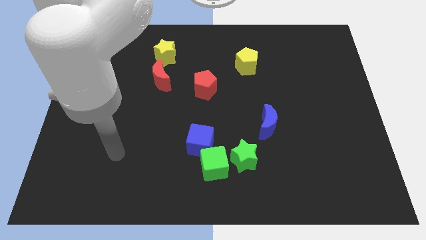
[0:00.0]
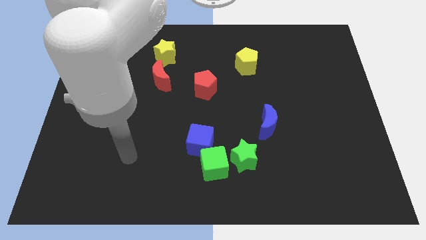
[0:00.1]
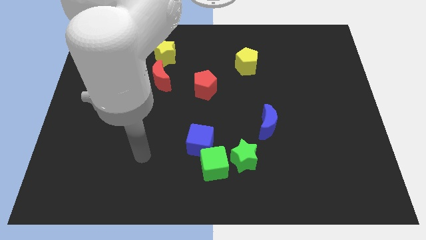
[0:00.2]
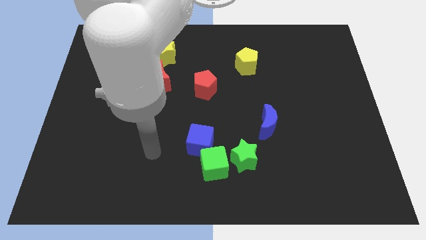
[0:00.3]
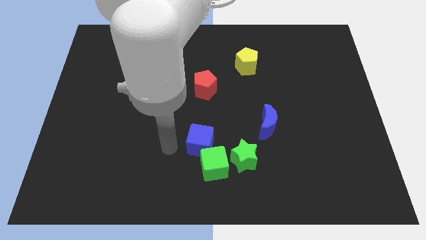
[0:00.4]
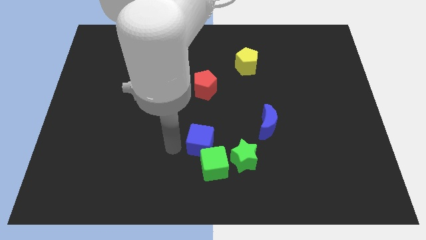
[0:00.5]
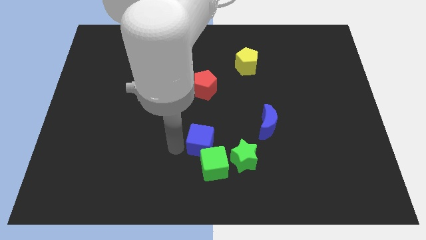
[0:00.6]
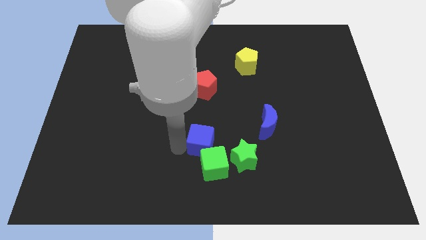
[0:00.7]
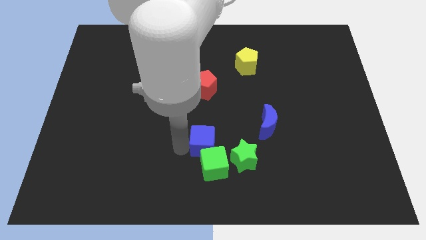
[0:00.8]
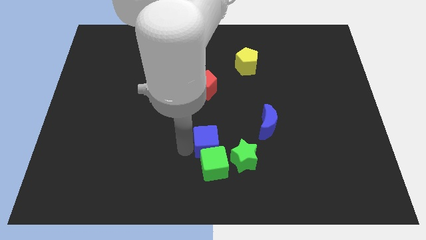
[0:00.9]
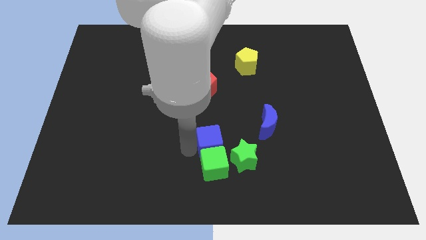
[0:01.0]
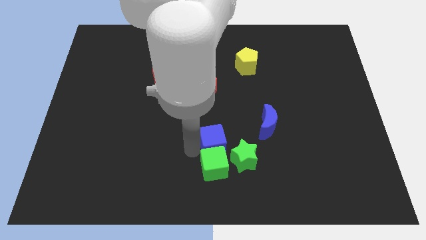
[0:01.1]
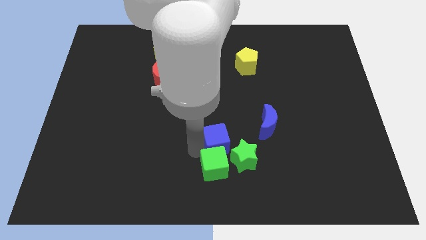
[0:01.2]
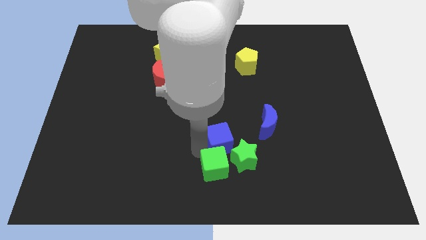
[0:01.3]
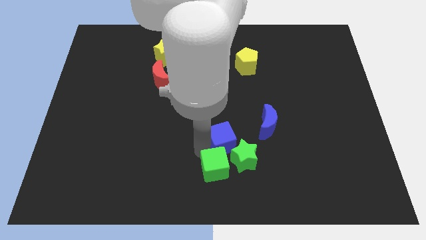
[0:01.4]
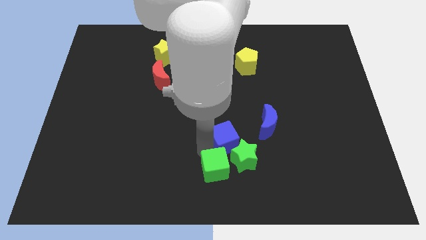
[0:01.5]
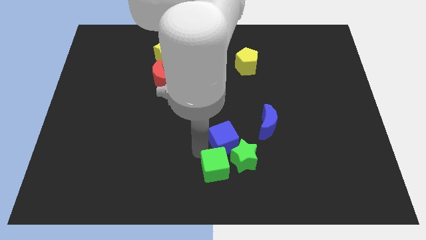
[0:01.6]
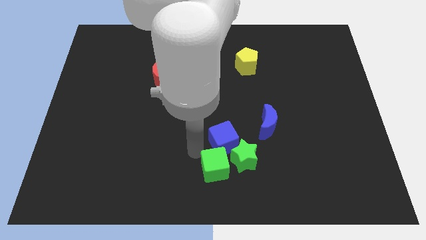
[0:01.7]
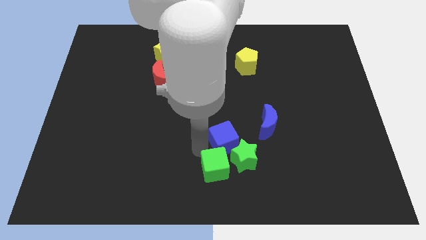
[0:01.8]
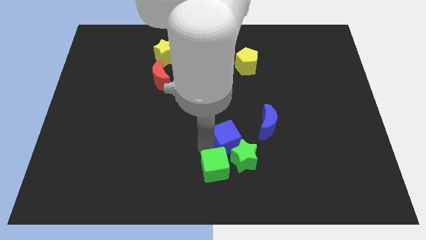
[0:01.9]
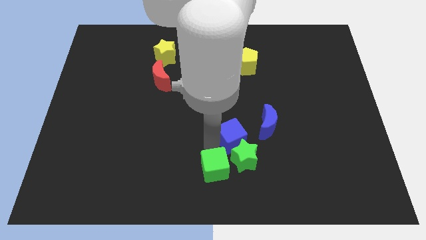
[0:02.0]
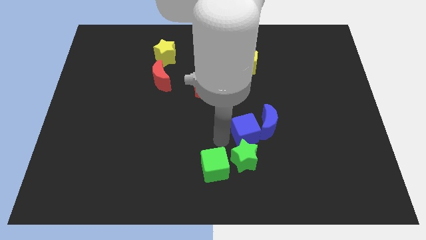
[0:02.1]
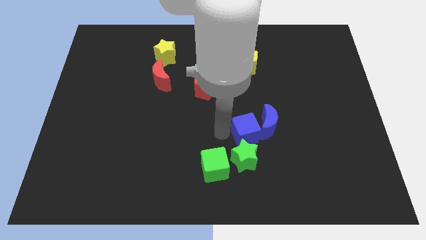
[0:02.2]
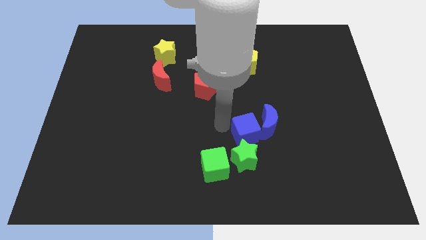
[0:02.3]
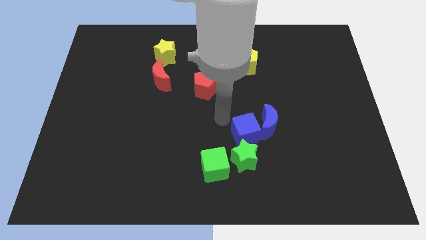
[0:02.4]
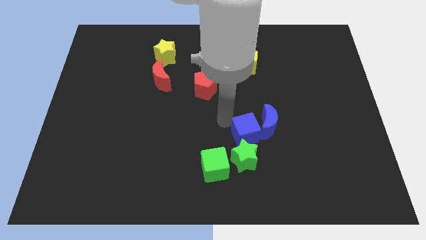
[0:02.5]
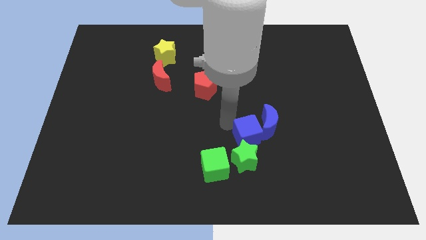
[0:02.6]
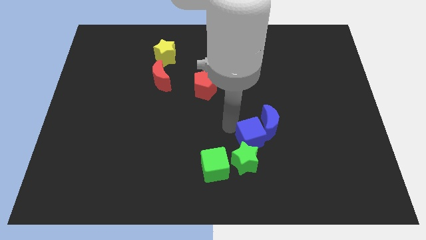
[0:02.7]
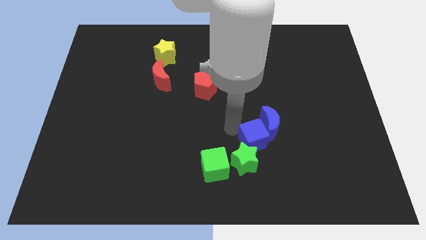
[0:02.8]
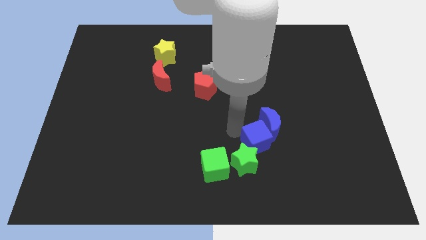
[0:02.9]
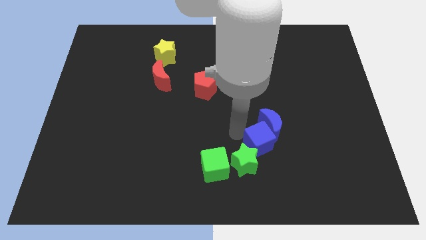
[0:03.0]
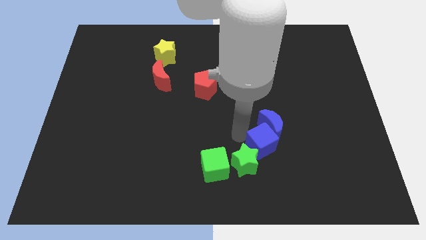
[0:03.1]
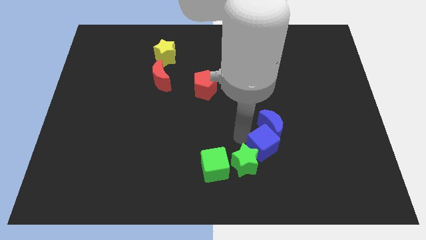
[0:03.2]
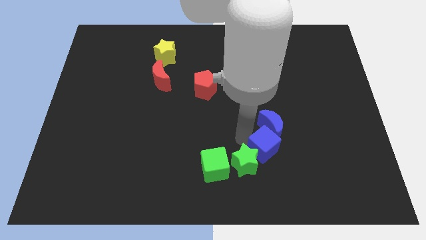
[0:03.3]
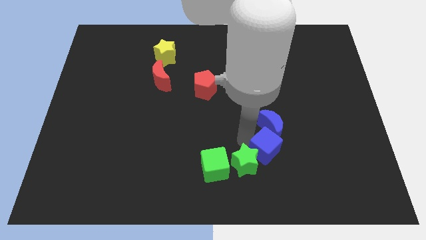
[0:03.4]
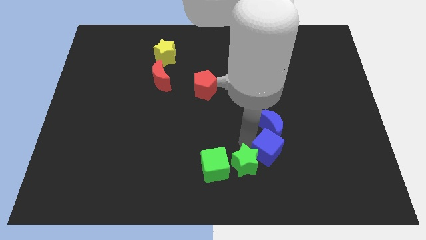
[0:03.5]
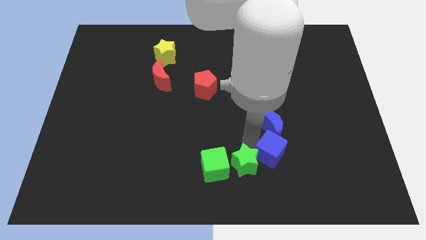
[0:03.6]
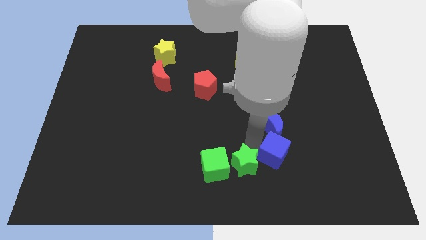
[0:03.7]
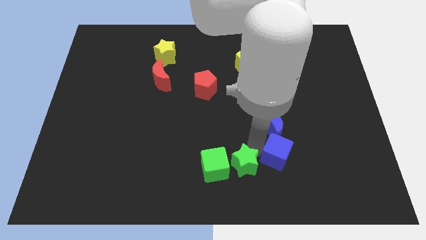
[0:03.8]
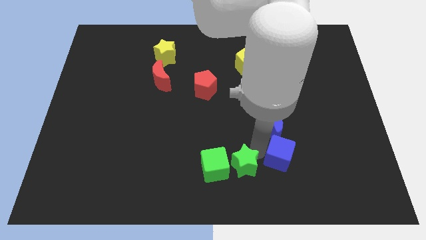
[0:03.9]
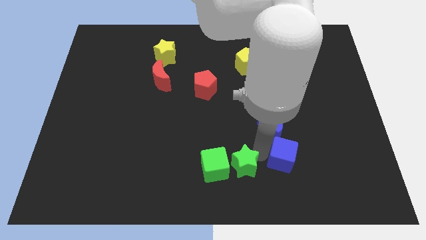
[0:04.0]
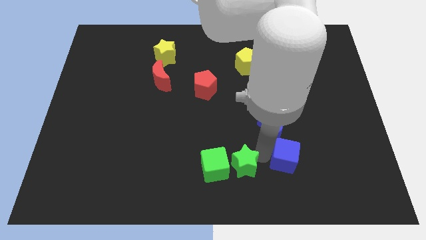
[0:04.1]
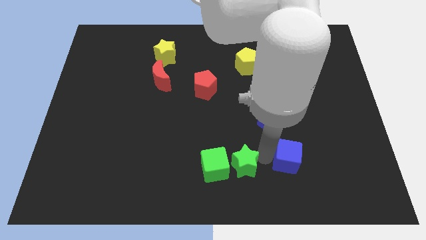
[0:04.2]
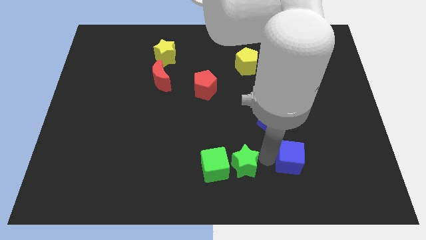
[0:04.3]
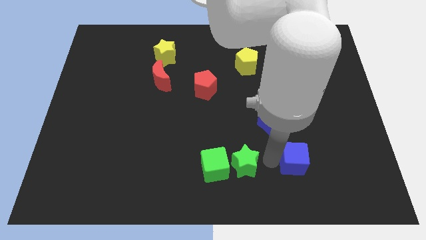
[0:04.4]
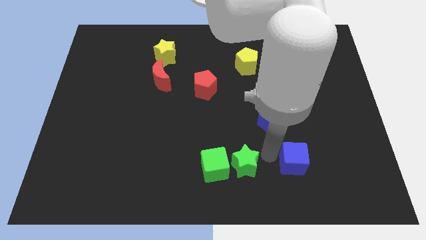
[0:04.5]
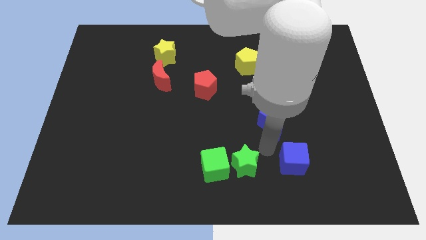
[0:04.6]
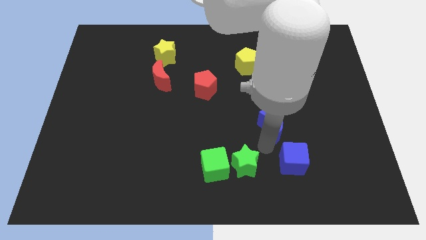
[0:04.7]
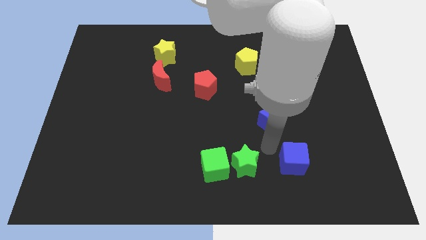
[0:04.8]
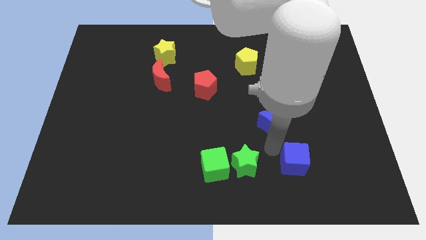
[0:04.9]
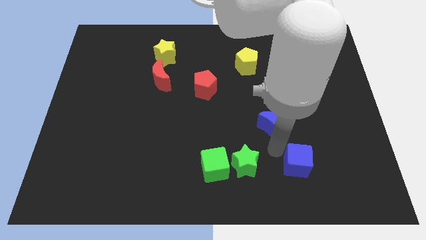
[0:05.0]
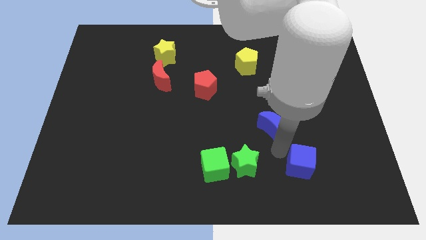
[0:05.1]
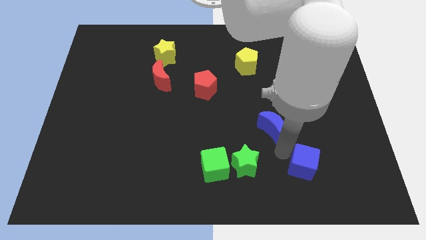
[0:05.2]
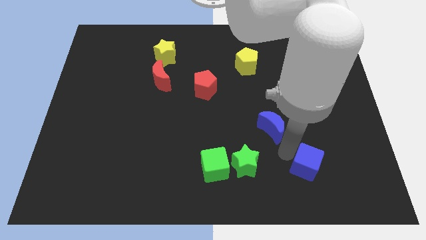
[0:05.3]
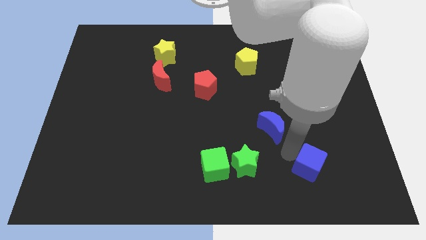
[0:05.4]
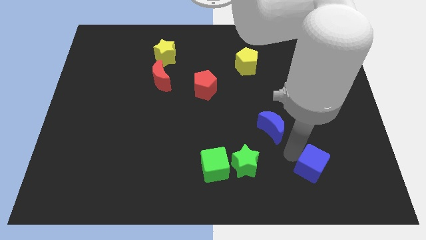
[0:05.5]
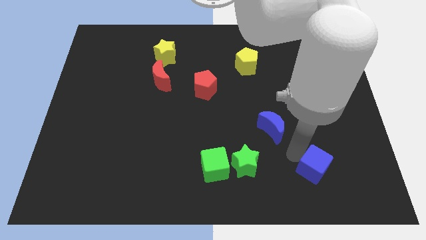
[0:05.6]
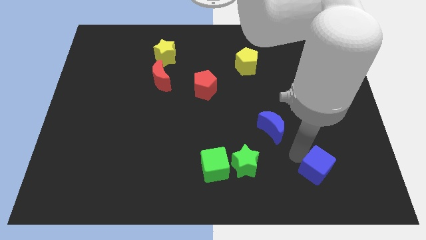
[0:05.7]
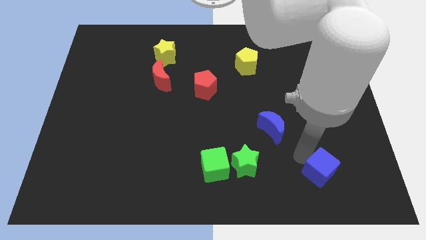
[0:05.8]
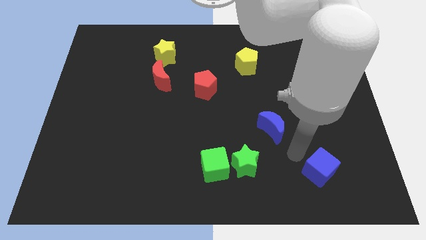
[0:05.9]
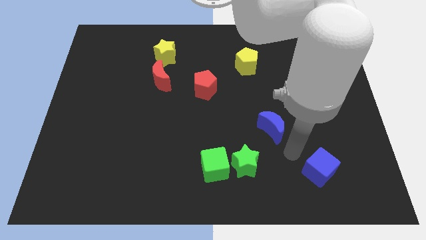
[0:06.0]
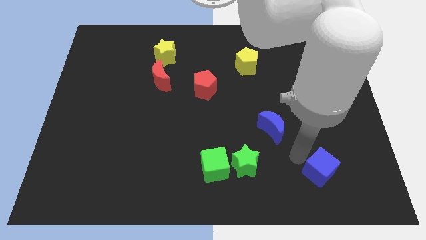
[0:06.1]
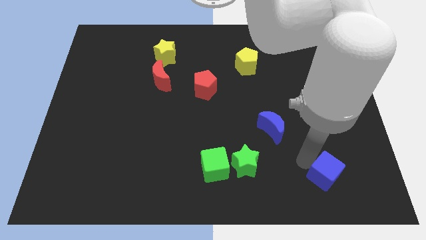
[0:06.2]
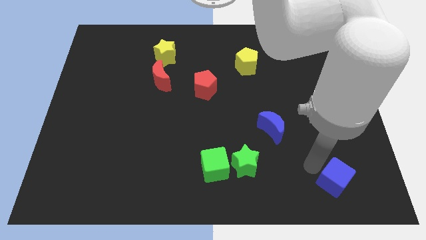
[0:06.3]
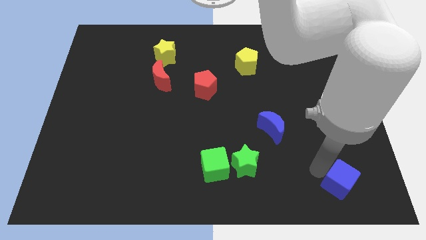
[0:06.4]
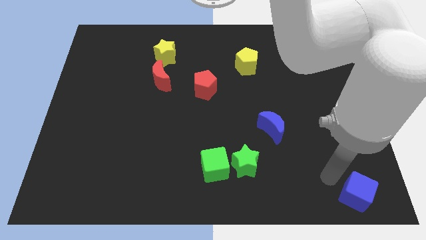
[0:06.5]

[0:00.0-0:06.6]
push the blue cube to the bottom right of the board
